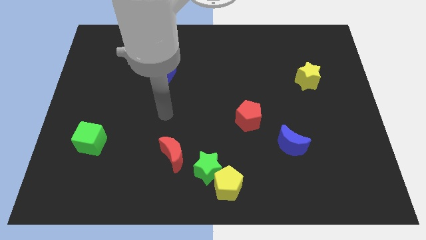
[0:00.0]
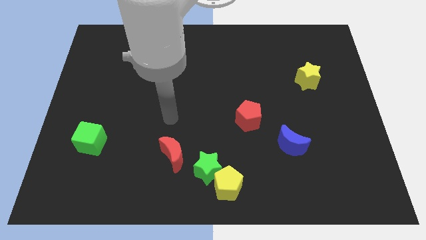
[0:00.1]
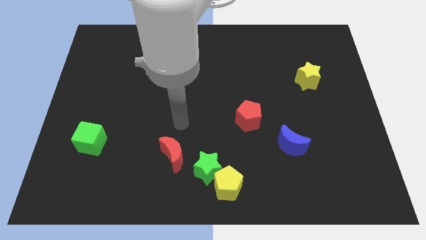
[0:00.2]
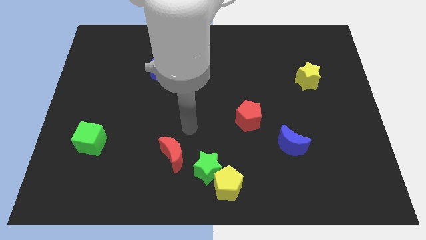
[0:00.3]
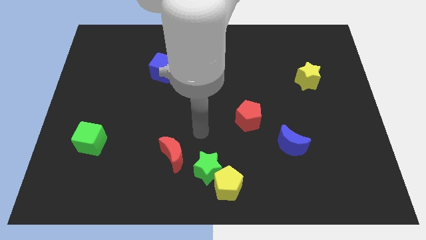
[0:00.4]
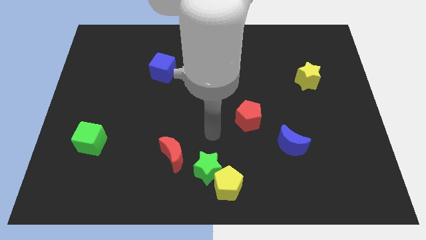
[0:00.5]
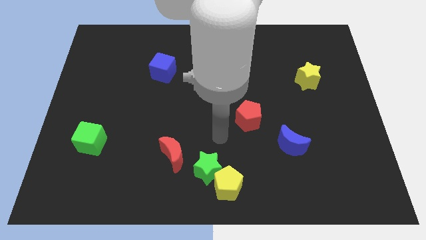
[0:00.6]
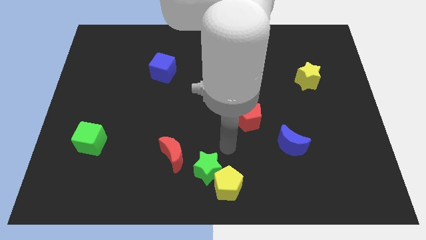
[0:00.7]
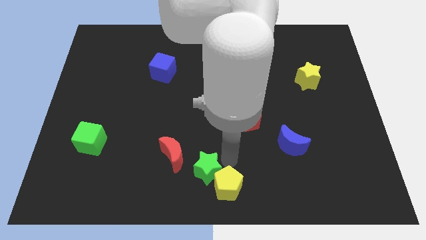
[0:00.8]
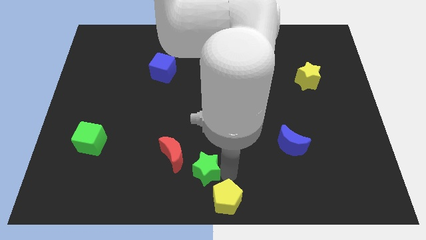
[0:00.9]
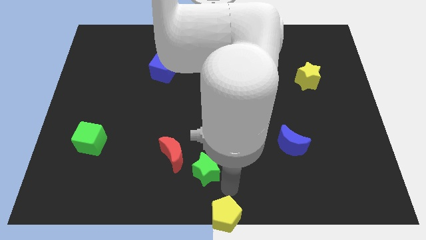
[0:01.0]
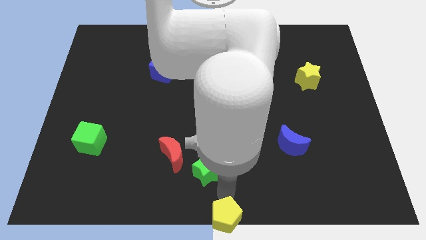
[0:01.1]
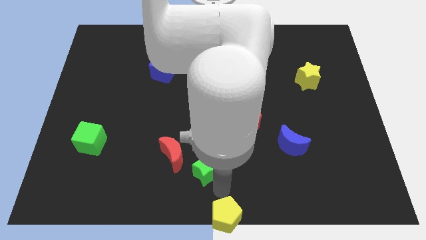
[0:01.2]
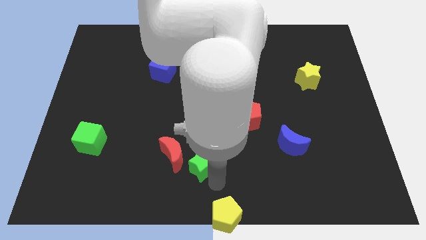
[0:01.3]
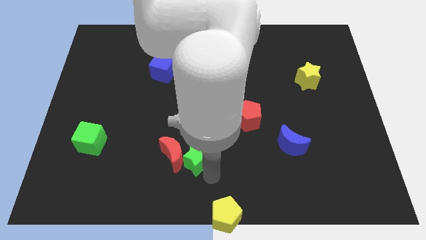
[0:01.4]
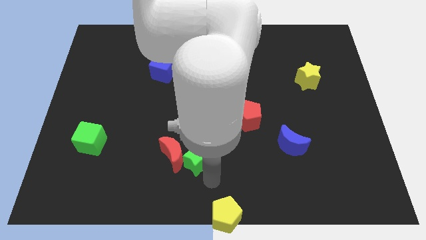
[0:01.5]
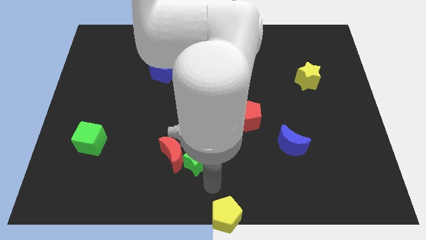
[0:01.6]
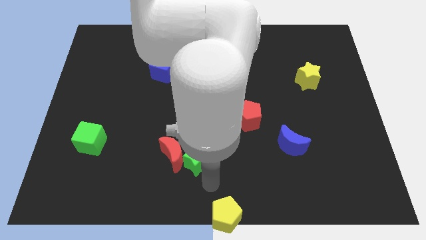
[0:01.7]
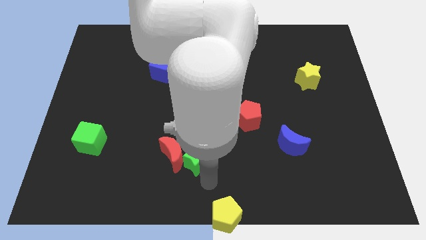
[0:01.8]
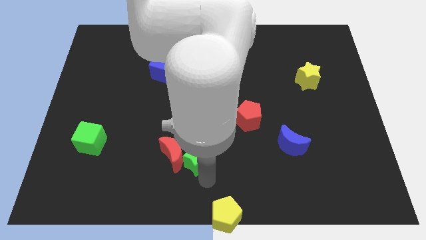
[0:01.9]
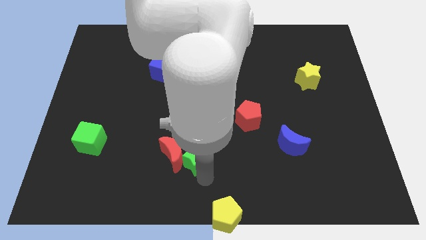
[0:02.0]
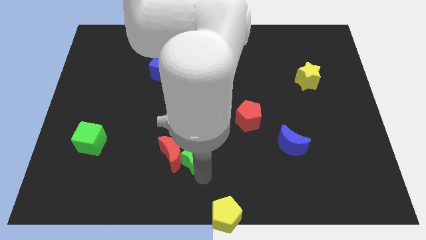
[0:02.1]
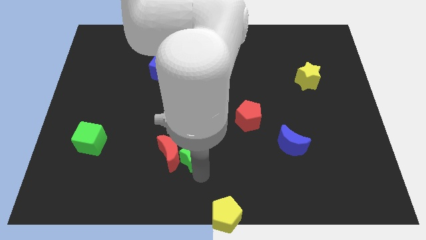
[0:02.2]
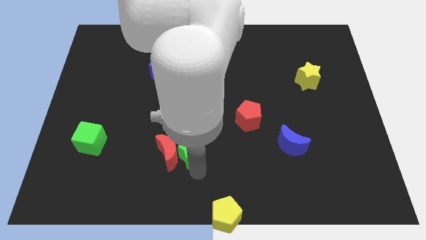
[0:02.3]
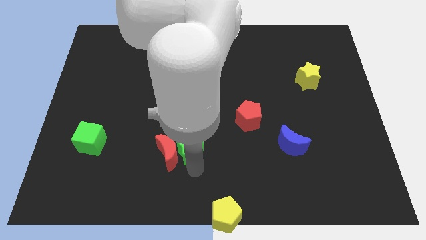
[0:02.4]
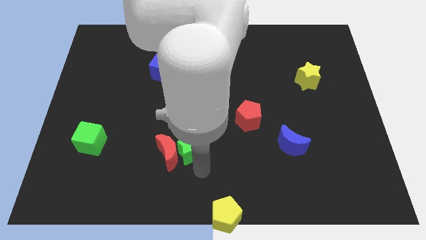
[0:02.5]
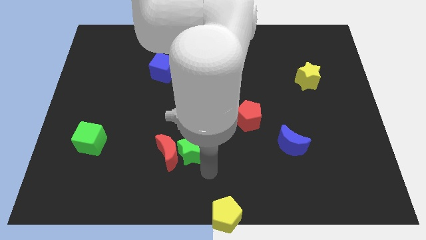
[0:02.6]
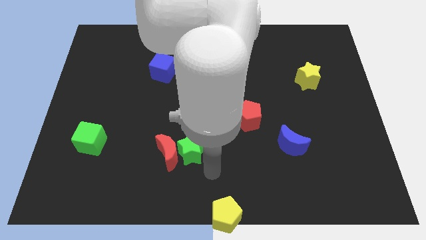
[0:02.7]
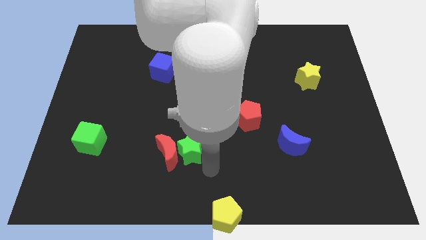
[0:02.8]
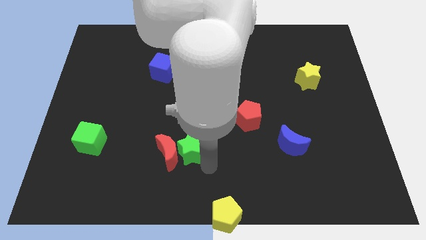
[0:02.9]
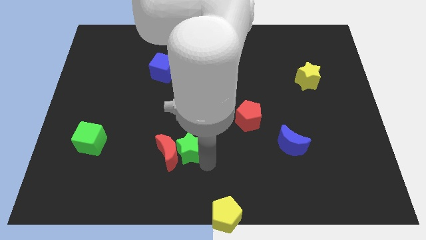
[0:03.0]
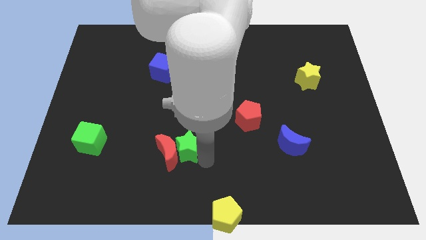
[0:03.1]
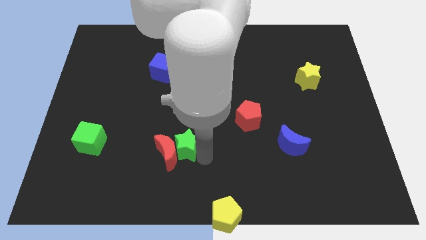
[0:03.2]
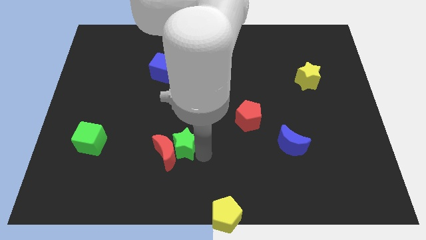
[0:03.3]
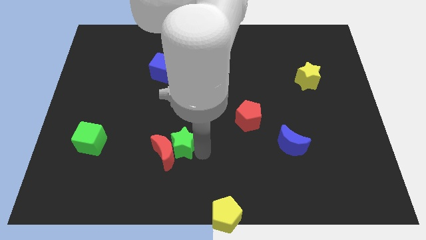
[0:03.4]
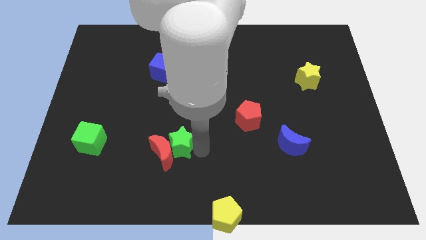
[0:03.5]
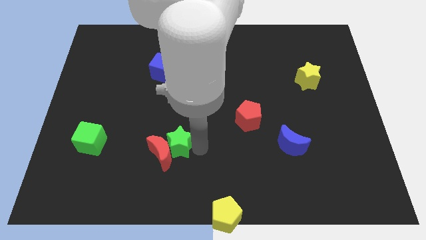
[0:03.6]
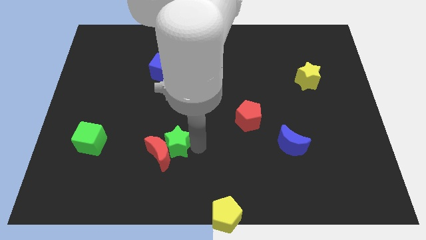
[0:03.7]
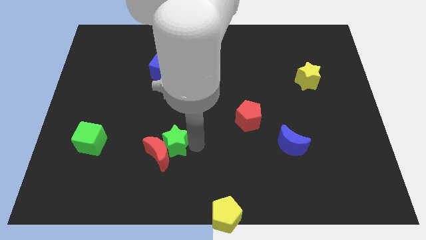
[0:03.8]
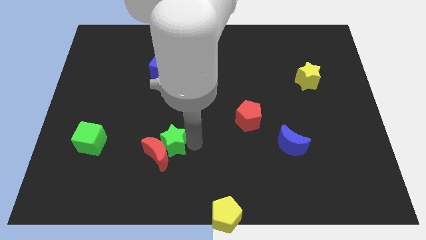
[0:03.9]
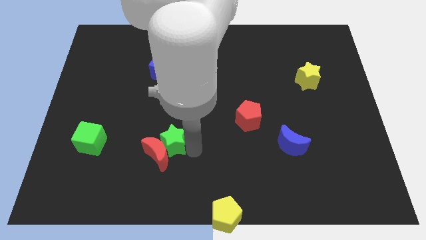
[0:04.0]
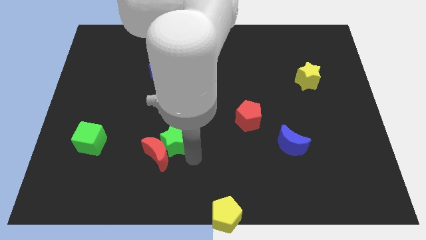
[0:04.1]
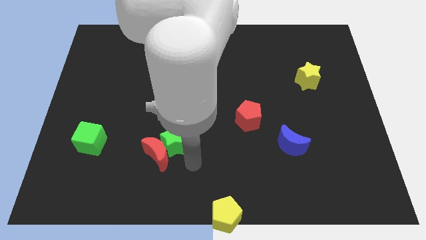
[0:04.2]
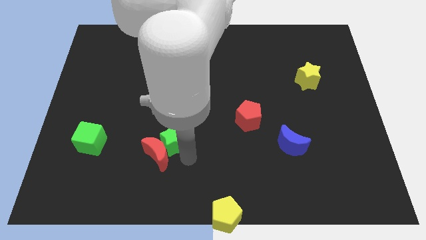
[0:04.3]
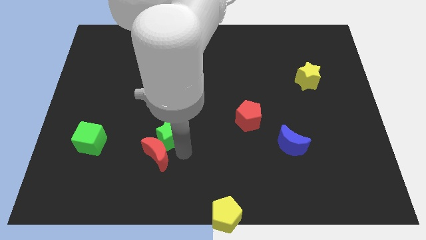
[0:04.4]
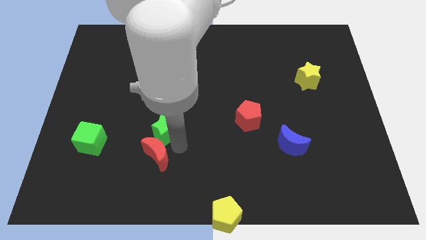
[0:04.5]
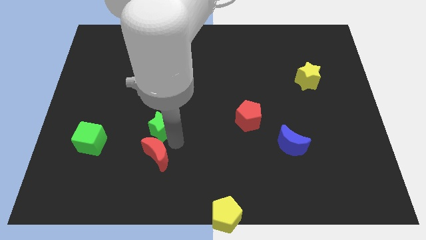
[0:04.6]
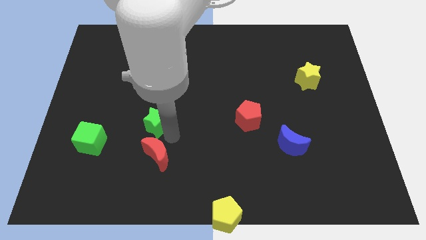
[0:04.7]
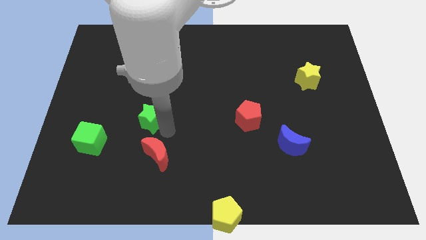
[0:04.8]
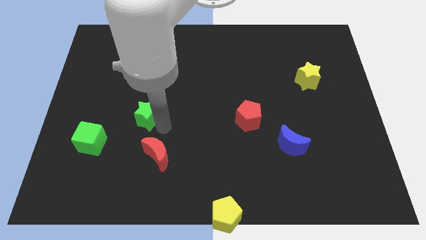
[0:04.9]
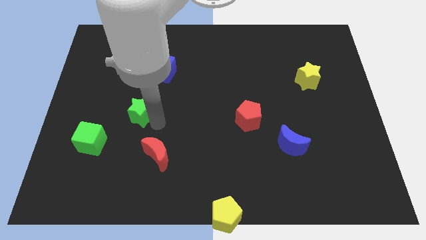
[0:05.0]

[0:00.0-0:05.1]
move the green star up and left

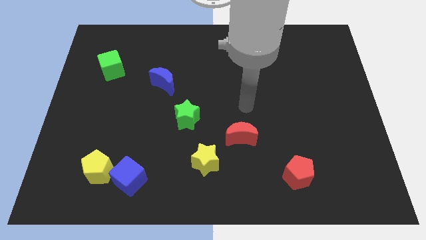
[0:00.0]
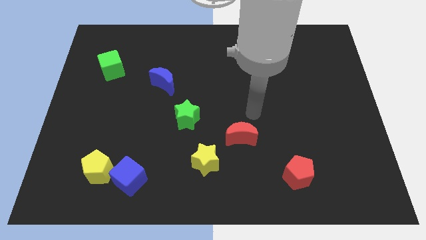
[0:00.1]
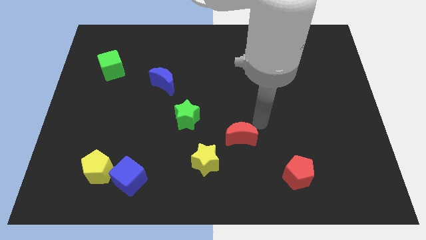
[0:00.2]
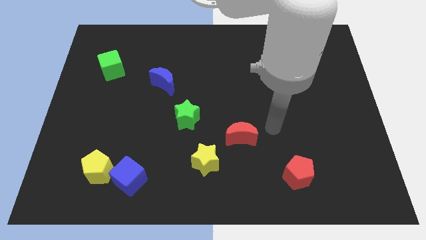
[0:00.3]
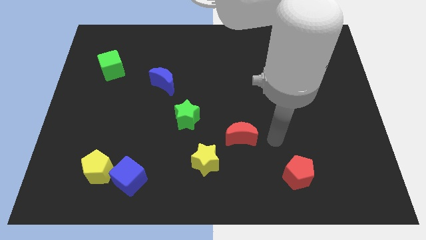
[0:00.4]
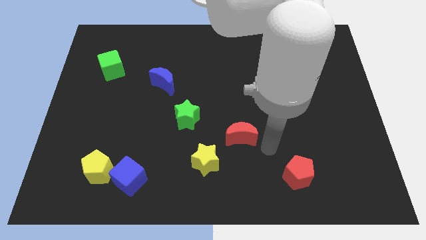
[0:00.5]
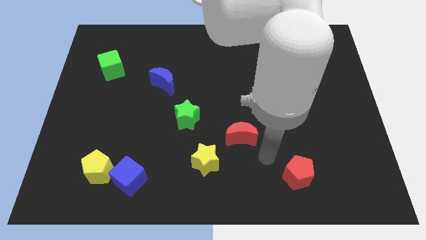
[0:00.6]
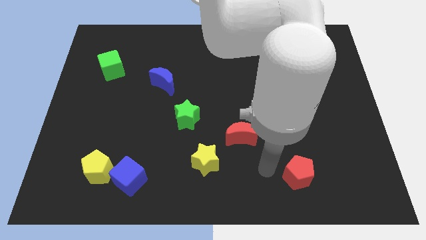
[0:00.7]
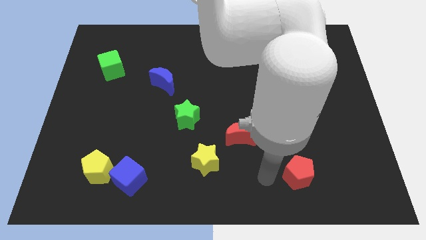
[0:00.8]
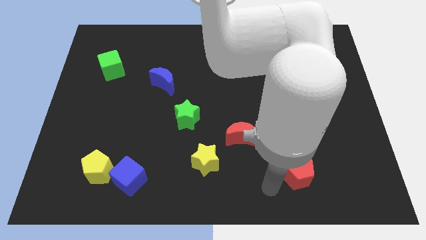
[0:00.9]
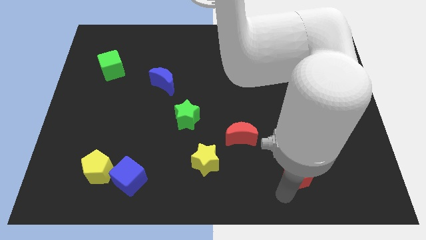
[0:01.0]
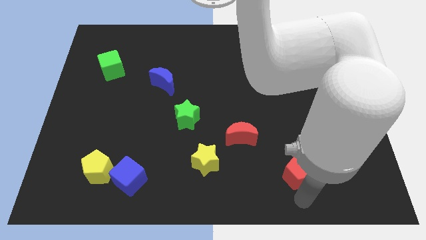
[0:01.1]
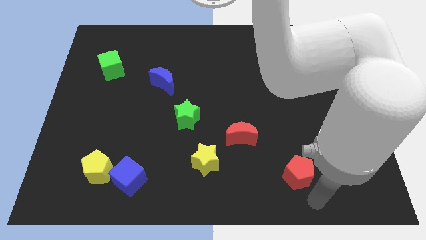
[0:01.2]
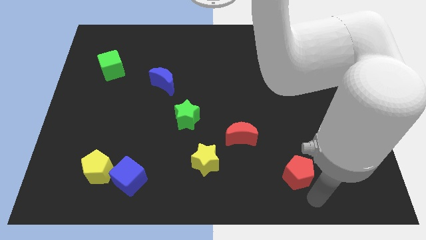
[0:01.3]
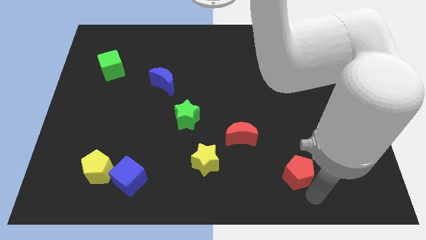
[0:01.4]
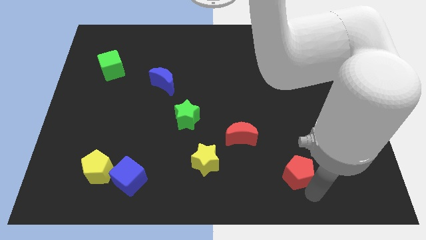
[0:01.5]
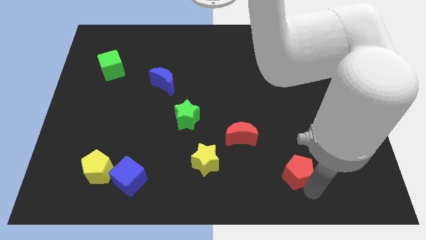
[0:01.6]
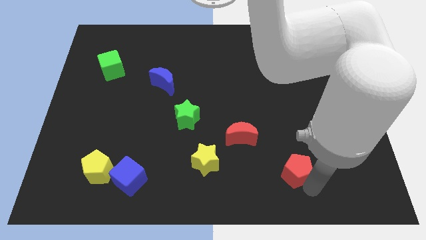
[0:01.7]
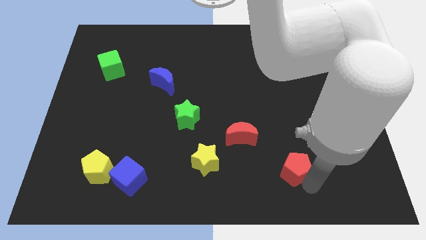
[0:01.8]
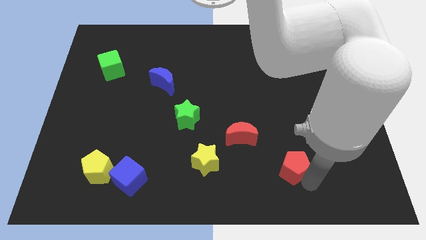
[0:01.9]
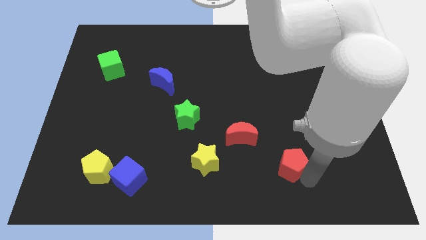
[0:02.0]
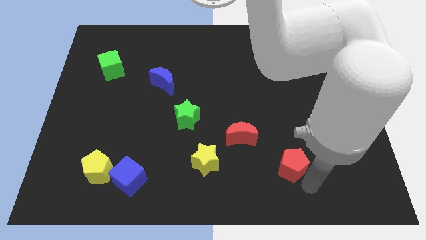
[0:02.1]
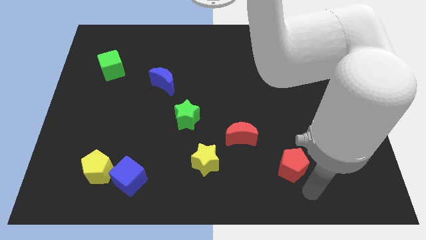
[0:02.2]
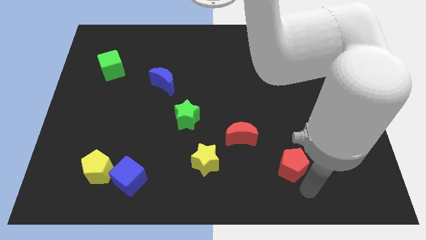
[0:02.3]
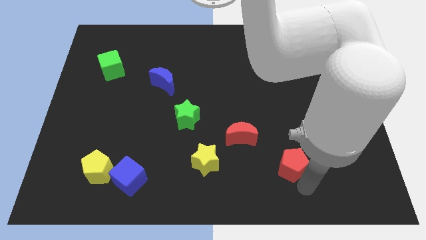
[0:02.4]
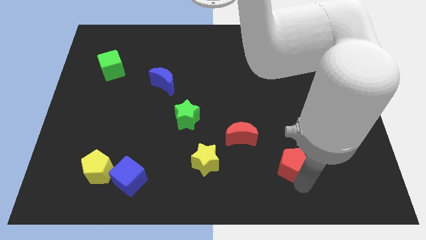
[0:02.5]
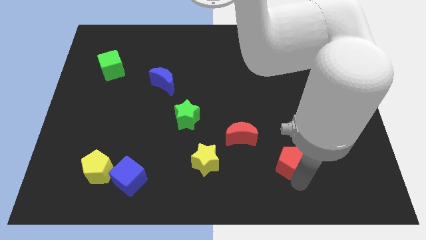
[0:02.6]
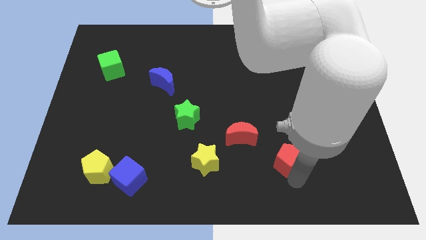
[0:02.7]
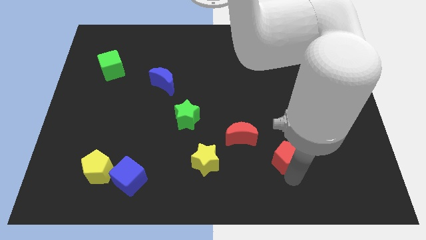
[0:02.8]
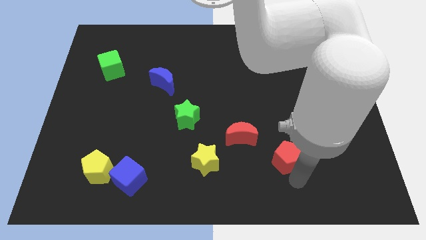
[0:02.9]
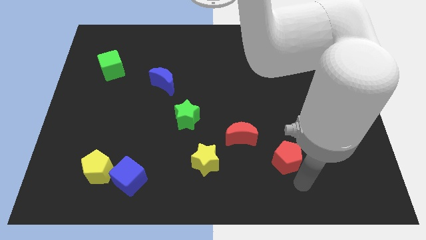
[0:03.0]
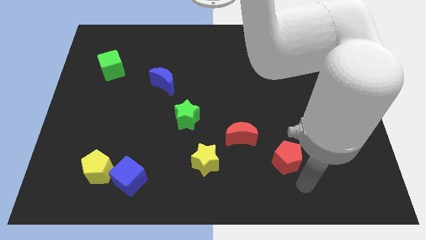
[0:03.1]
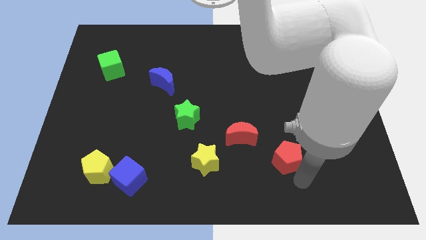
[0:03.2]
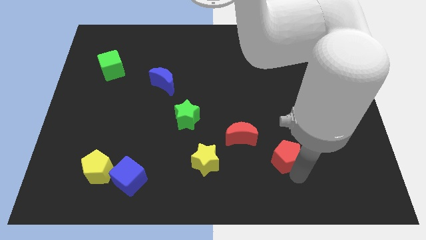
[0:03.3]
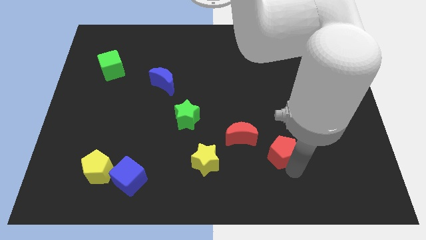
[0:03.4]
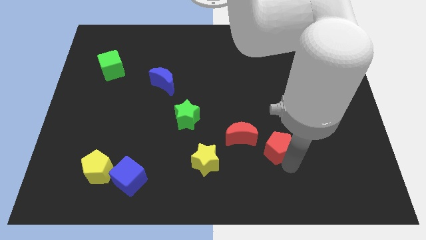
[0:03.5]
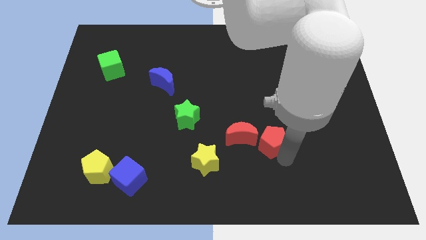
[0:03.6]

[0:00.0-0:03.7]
slightly move the red pentagon upwards and left diagonally
